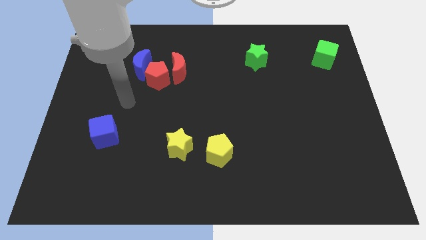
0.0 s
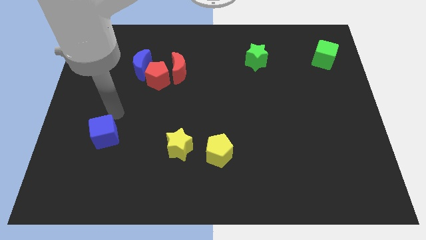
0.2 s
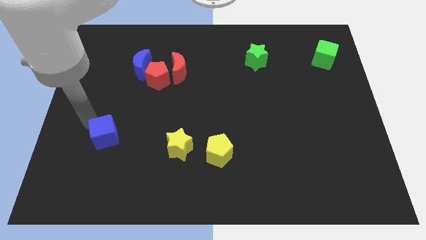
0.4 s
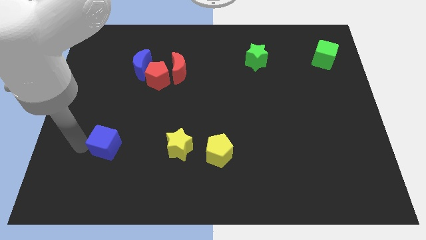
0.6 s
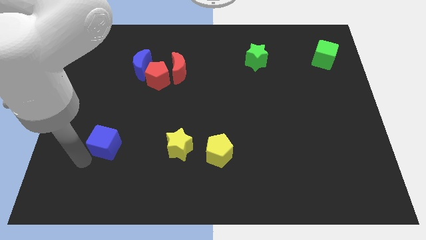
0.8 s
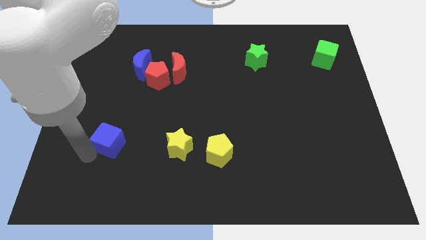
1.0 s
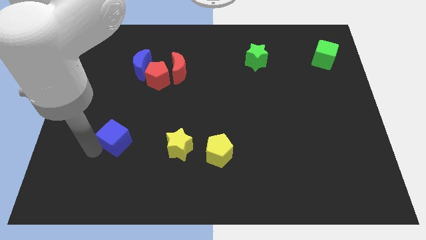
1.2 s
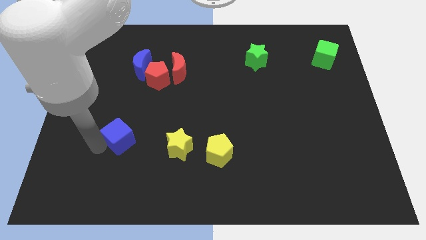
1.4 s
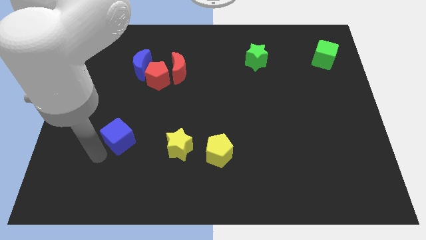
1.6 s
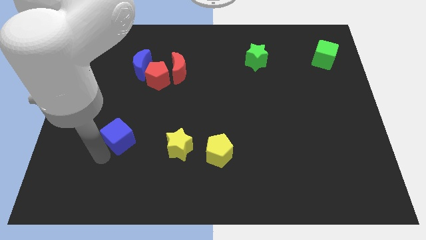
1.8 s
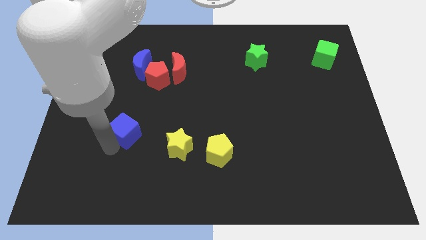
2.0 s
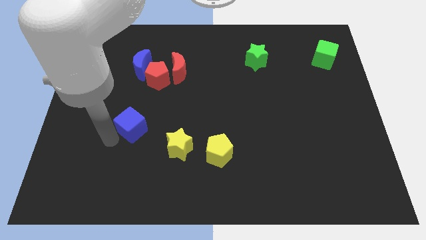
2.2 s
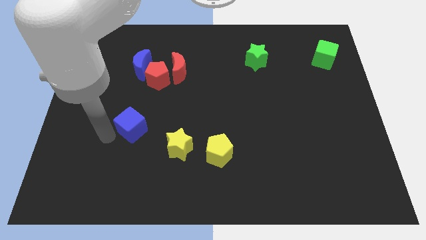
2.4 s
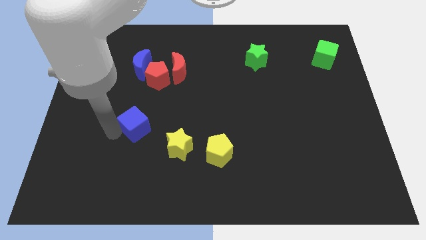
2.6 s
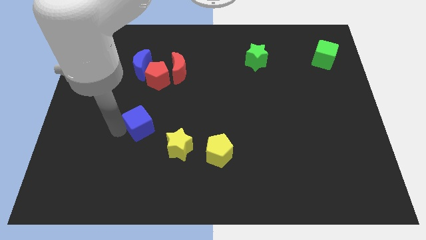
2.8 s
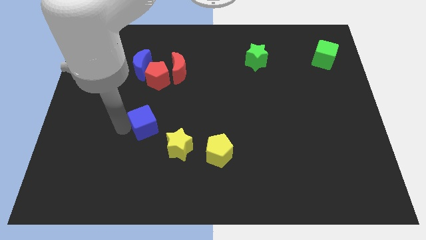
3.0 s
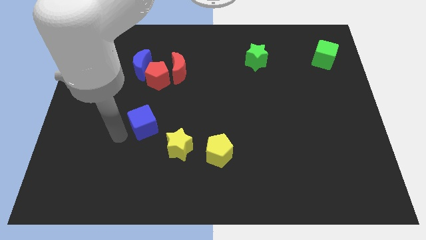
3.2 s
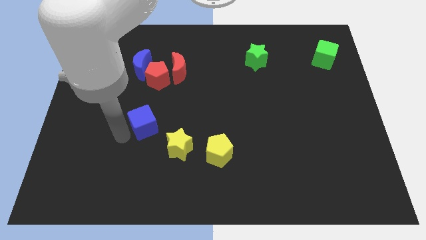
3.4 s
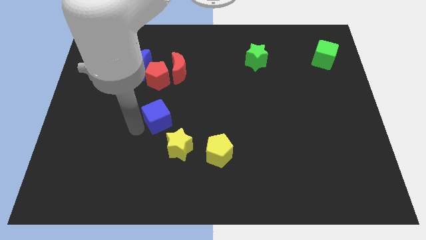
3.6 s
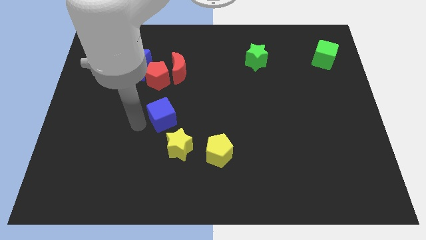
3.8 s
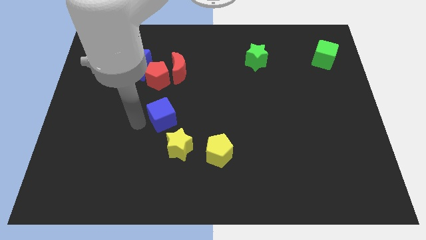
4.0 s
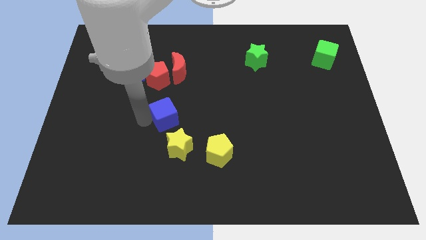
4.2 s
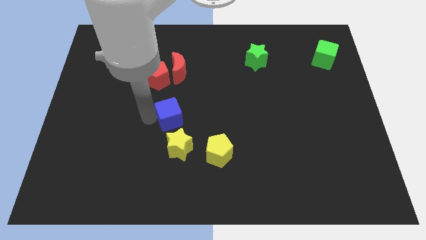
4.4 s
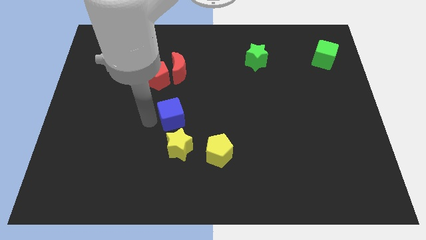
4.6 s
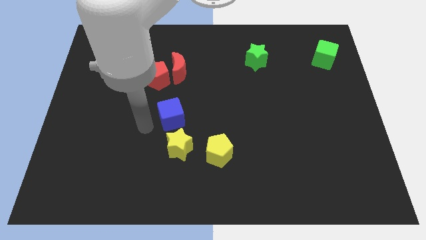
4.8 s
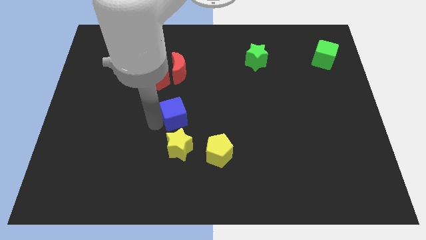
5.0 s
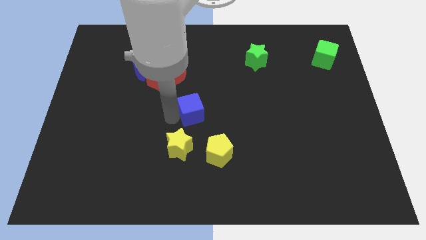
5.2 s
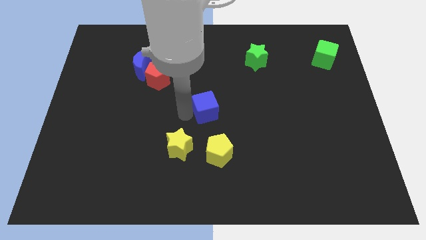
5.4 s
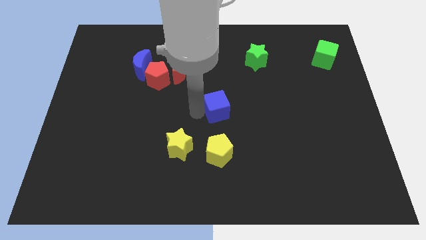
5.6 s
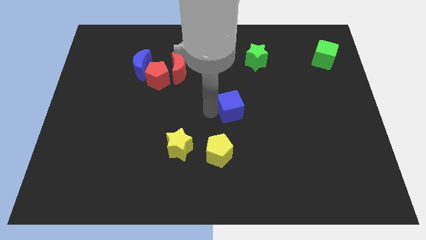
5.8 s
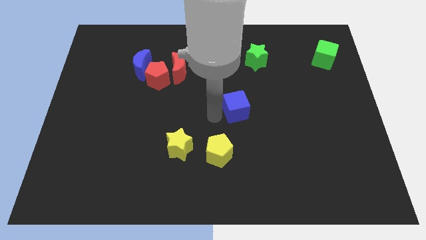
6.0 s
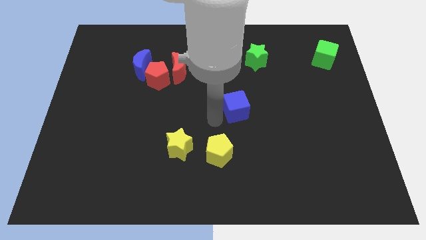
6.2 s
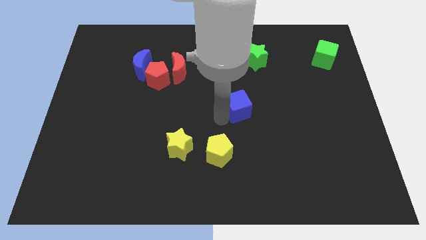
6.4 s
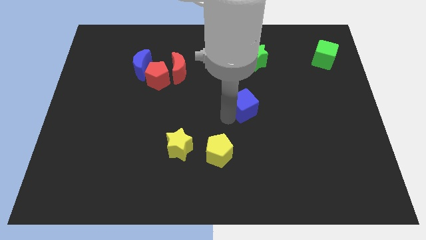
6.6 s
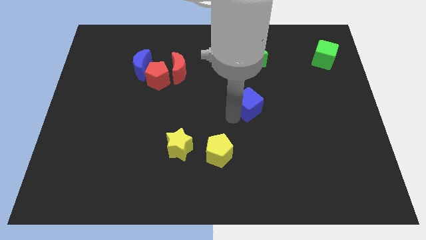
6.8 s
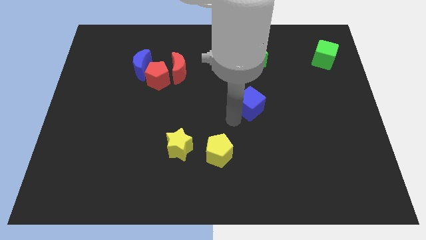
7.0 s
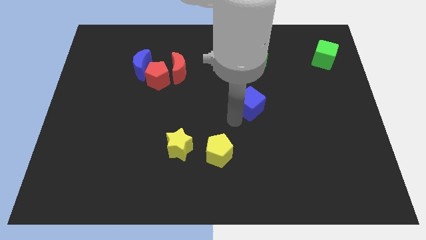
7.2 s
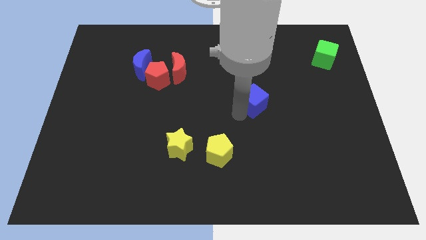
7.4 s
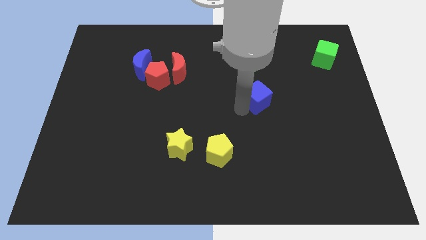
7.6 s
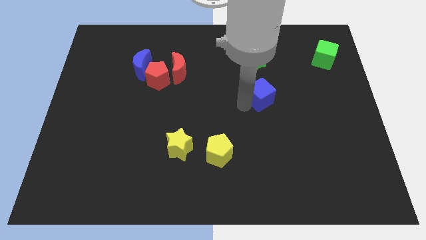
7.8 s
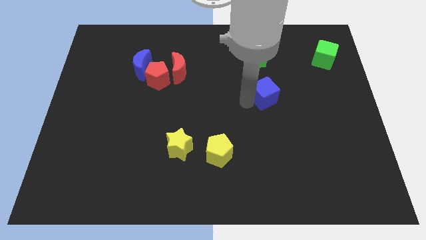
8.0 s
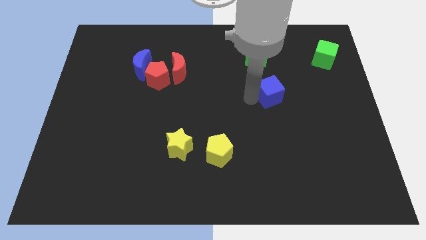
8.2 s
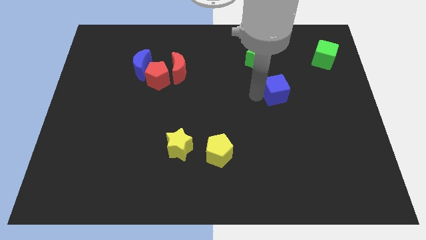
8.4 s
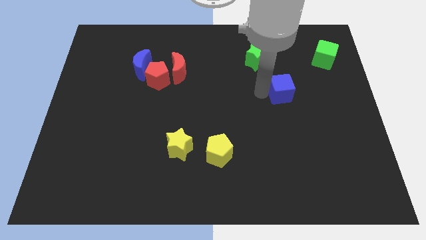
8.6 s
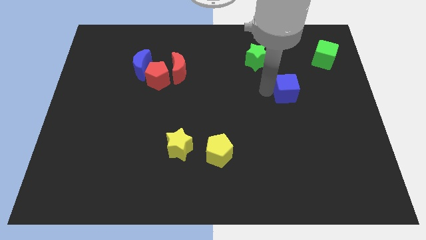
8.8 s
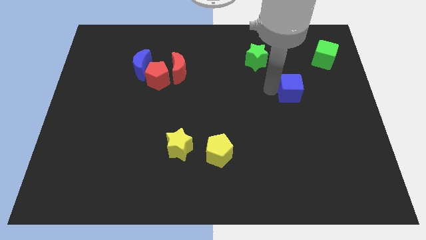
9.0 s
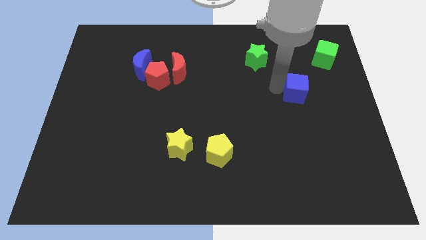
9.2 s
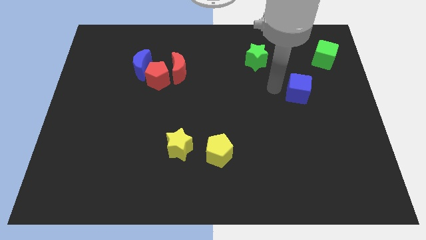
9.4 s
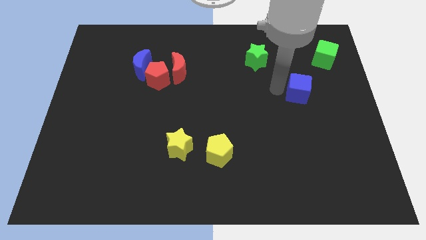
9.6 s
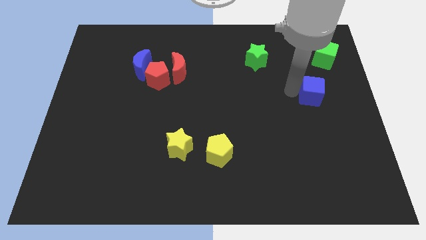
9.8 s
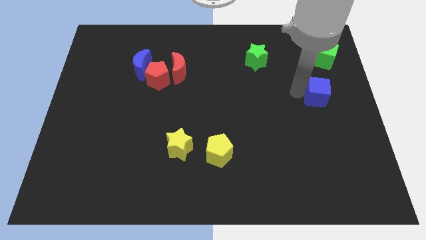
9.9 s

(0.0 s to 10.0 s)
slide the blue cube to the right side of the board

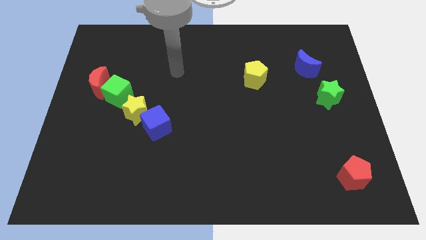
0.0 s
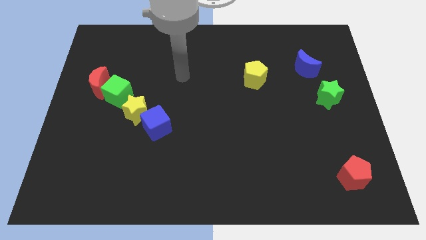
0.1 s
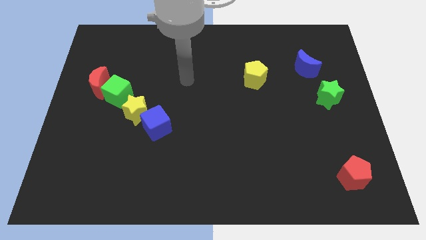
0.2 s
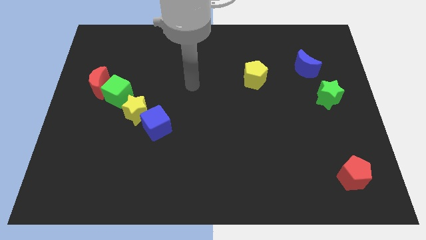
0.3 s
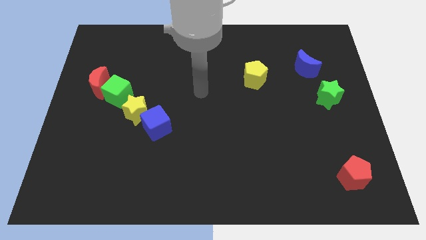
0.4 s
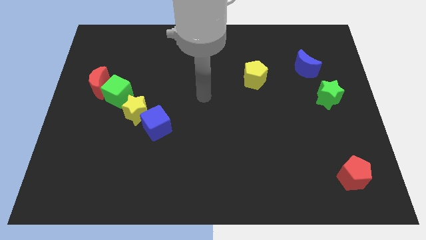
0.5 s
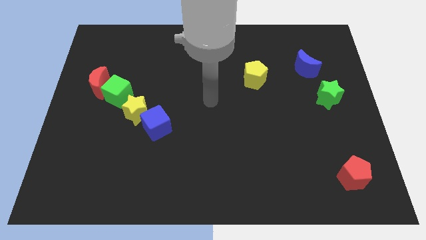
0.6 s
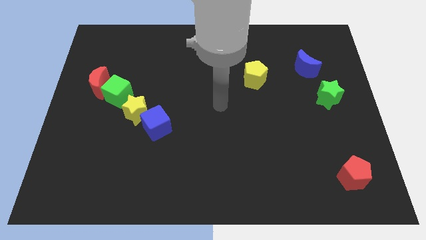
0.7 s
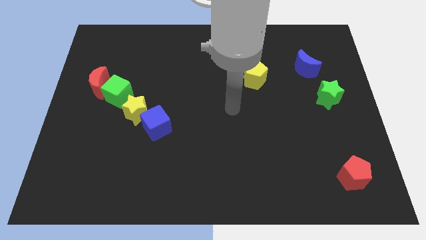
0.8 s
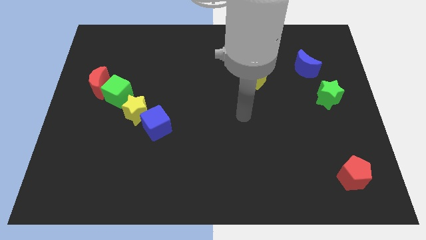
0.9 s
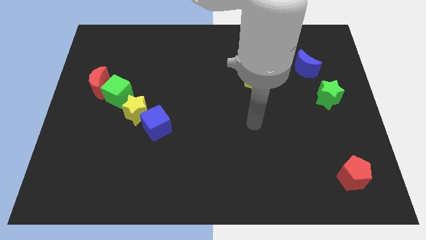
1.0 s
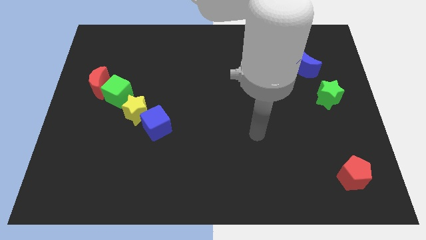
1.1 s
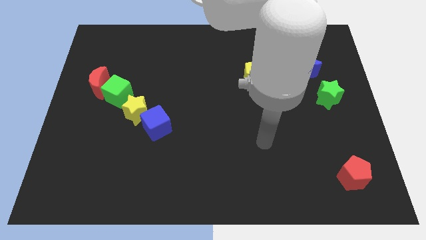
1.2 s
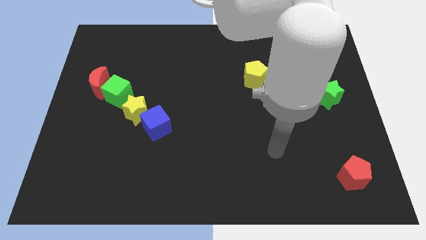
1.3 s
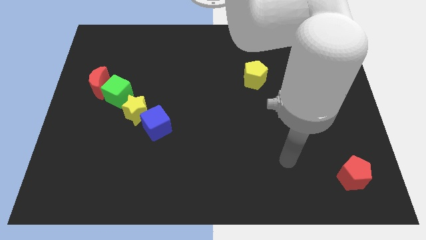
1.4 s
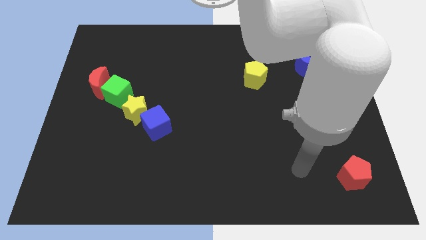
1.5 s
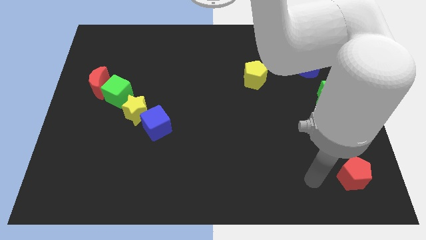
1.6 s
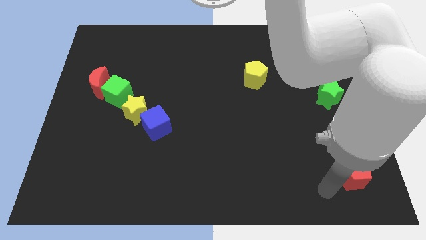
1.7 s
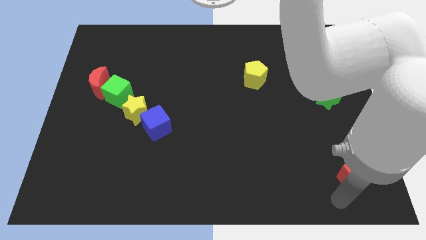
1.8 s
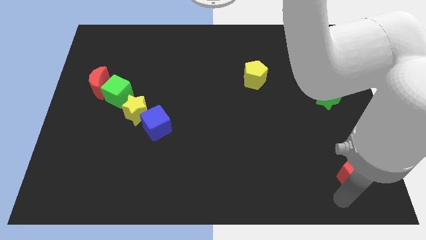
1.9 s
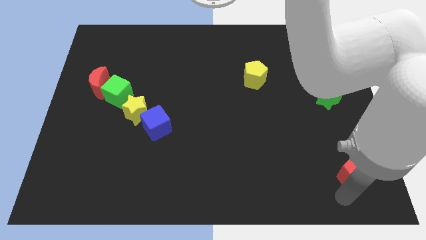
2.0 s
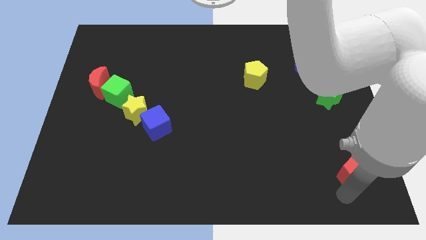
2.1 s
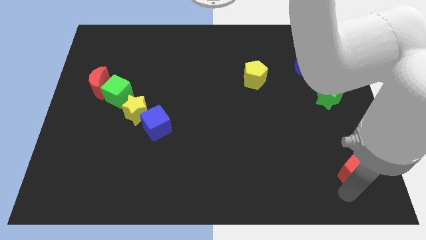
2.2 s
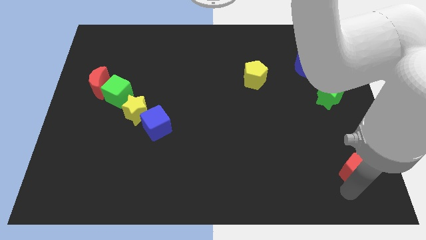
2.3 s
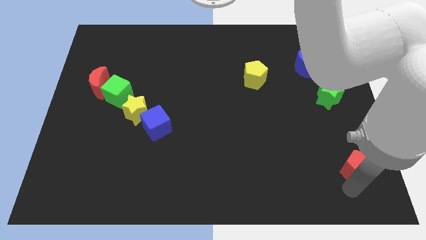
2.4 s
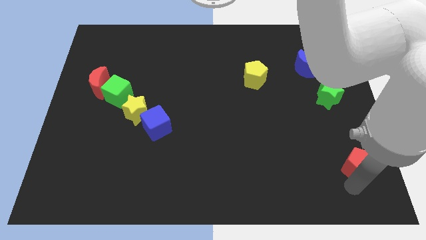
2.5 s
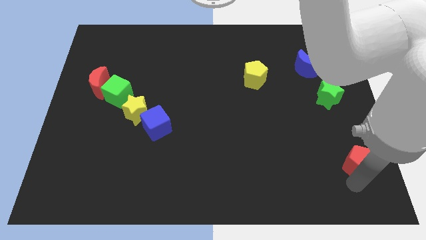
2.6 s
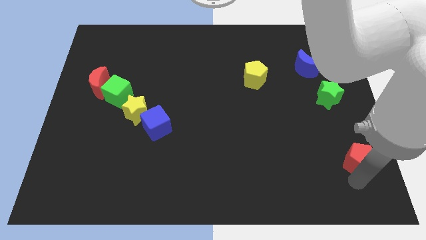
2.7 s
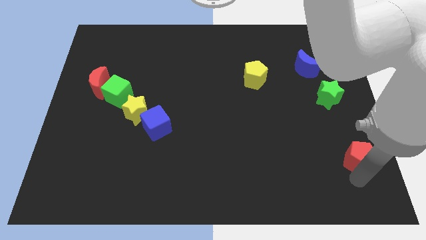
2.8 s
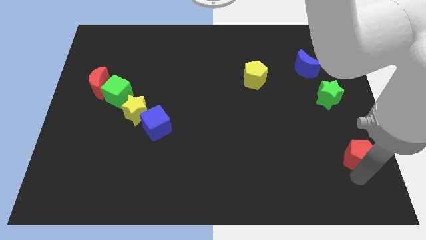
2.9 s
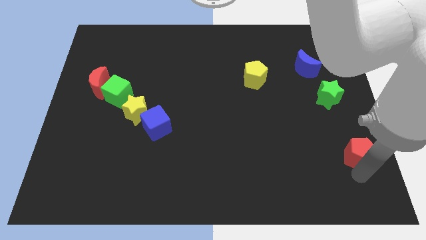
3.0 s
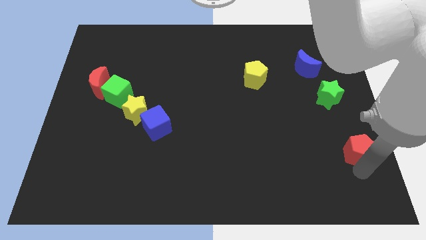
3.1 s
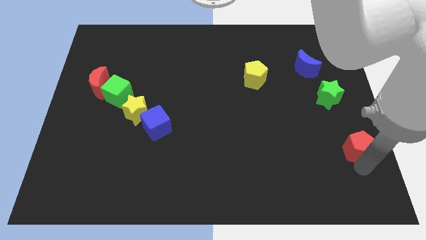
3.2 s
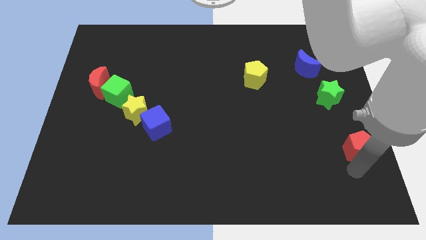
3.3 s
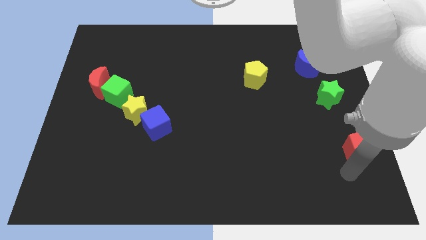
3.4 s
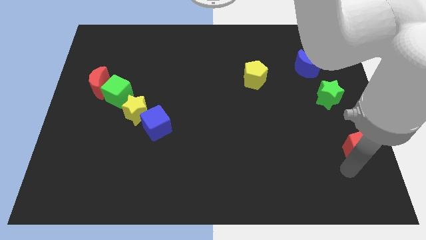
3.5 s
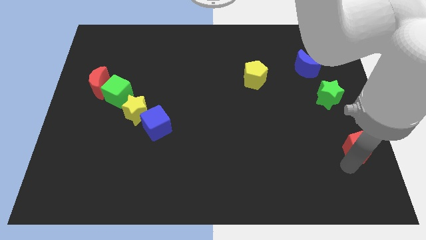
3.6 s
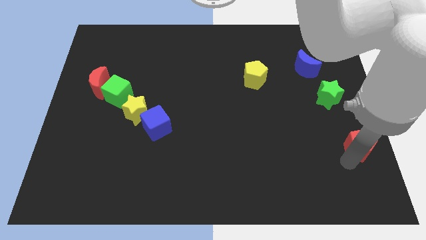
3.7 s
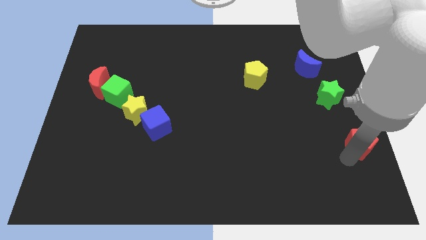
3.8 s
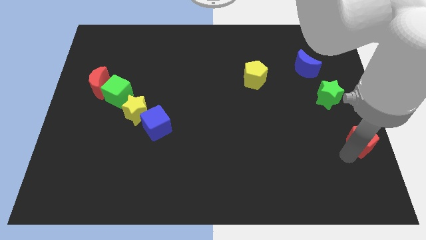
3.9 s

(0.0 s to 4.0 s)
slide the red pentagon to the right side
